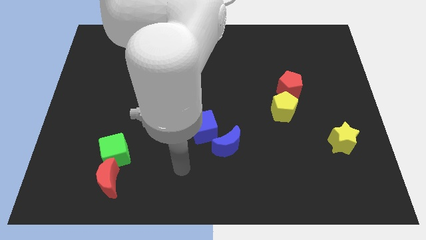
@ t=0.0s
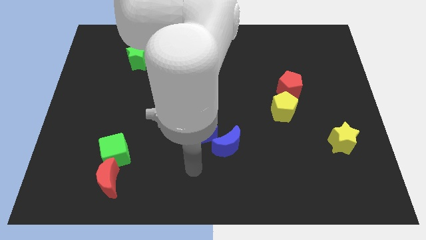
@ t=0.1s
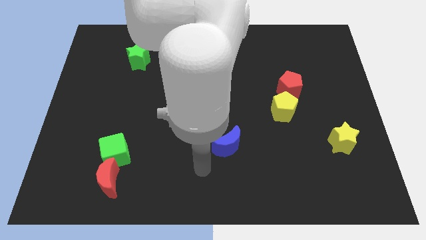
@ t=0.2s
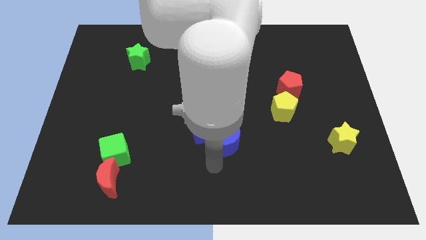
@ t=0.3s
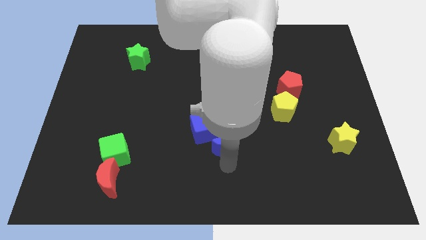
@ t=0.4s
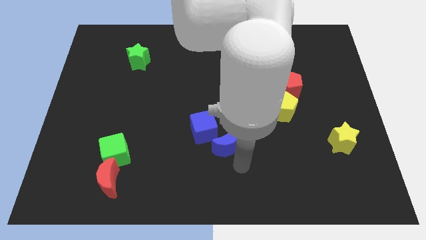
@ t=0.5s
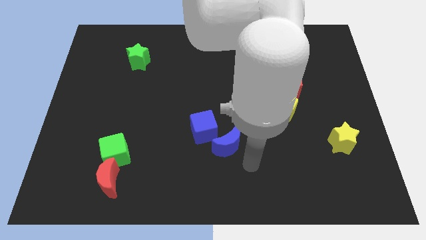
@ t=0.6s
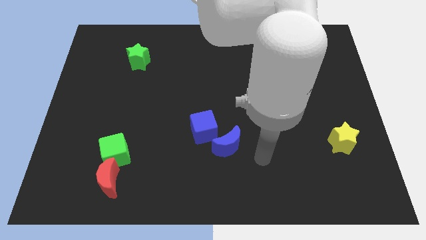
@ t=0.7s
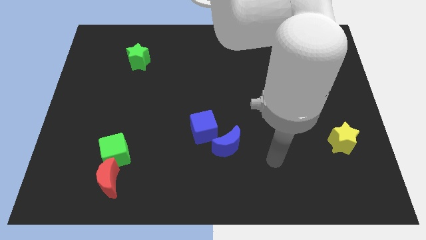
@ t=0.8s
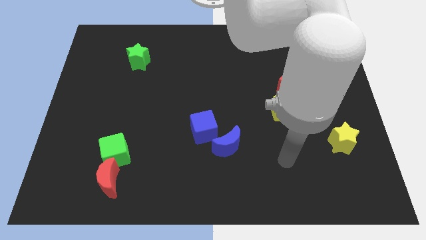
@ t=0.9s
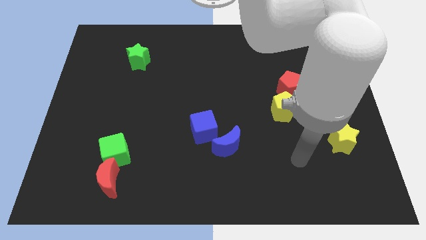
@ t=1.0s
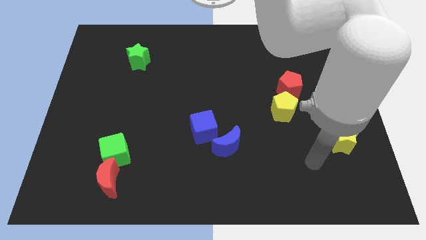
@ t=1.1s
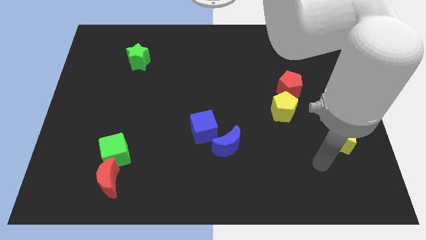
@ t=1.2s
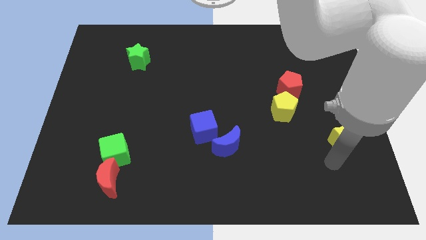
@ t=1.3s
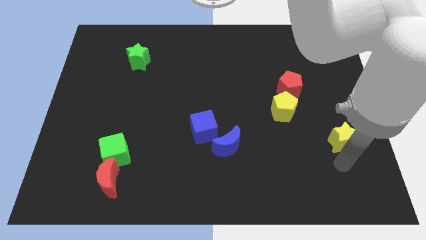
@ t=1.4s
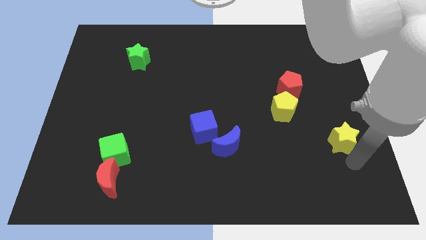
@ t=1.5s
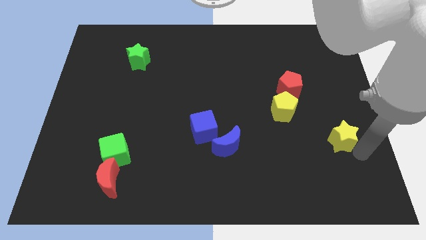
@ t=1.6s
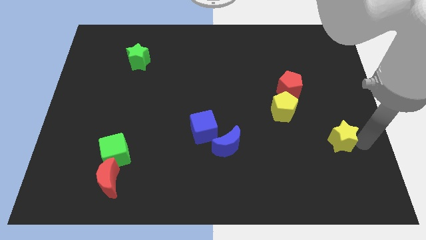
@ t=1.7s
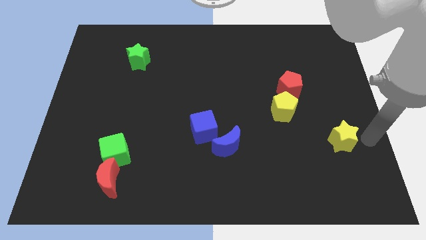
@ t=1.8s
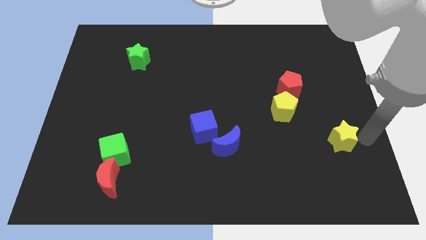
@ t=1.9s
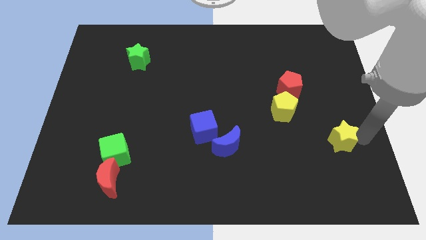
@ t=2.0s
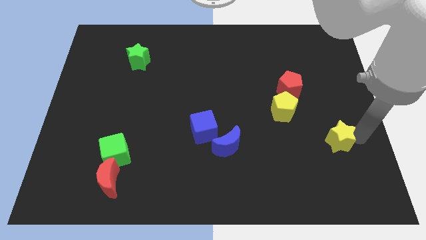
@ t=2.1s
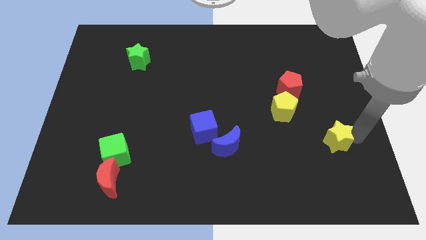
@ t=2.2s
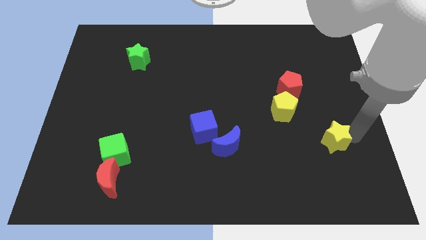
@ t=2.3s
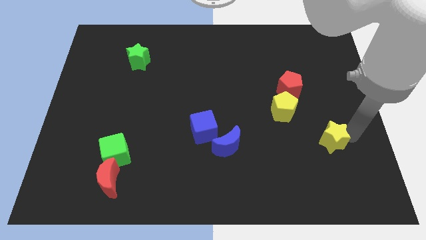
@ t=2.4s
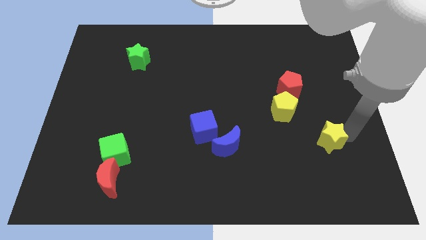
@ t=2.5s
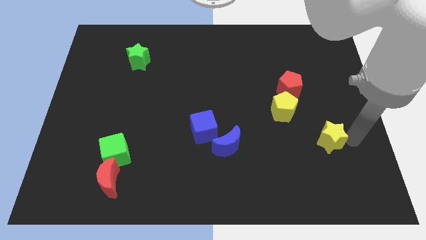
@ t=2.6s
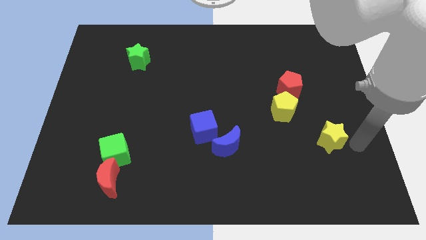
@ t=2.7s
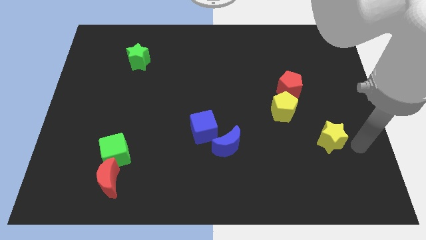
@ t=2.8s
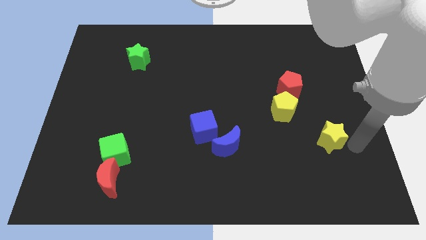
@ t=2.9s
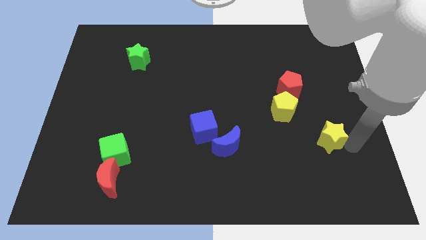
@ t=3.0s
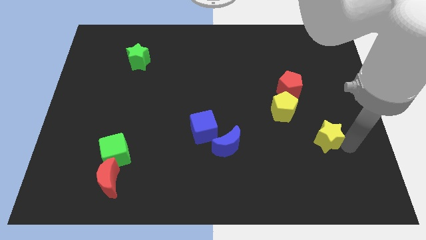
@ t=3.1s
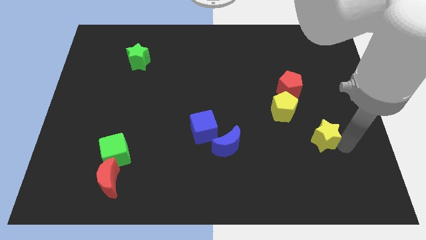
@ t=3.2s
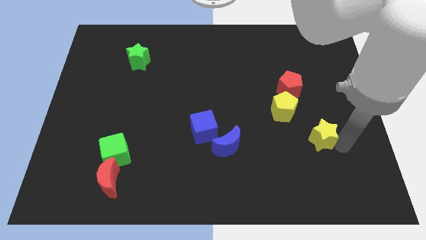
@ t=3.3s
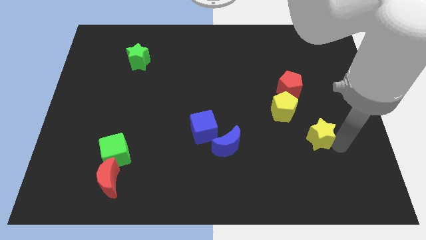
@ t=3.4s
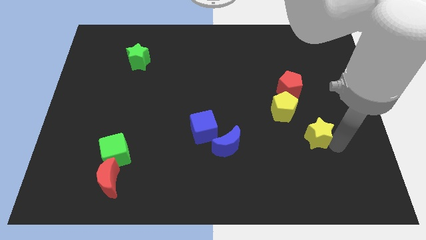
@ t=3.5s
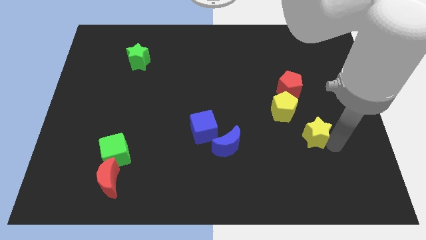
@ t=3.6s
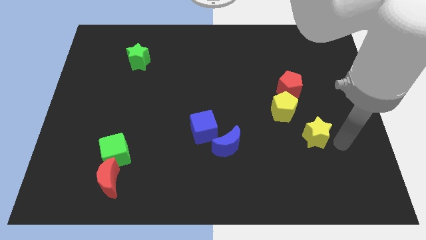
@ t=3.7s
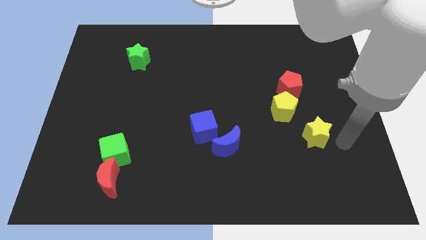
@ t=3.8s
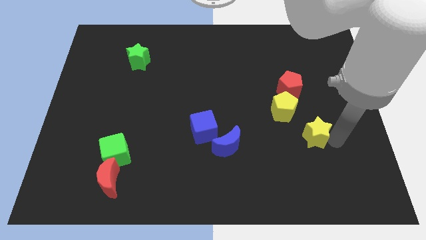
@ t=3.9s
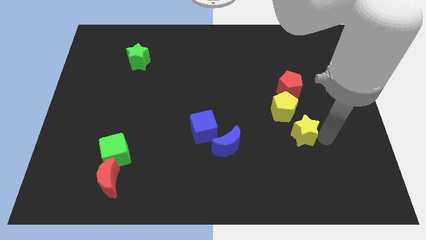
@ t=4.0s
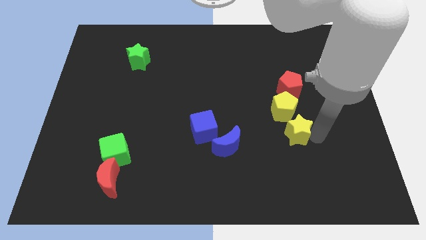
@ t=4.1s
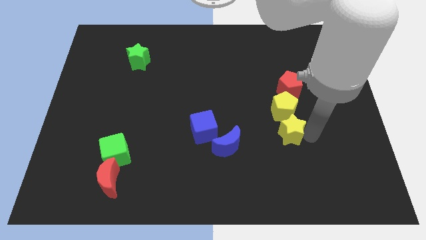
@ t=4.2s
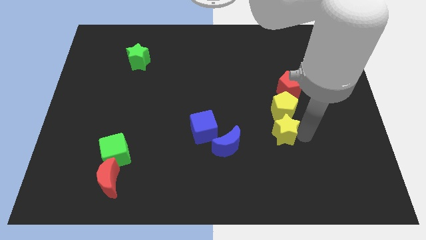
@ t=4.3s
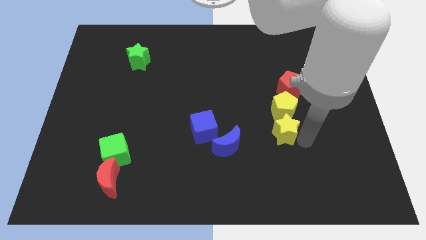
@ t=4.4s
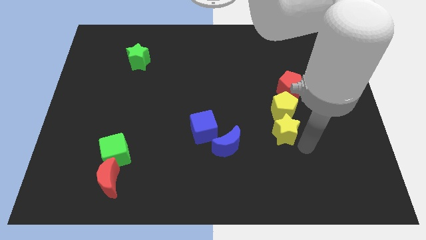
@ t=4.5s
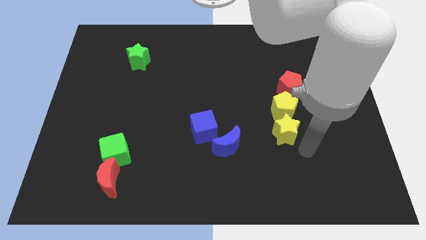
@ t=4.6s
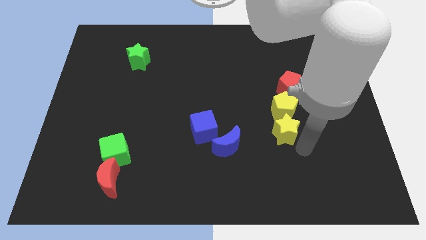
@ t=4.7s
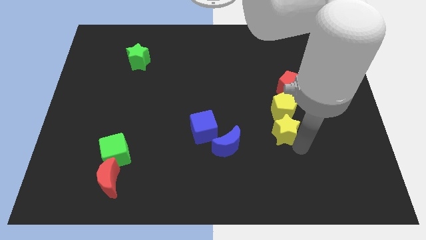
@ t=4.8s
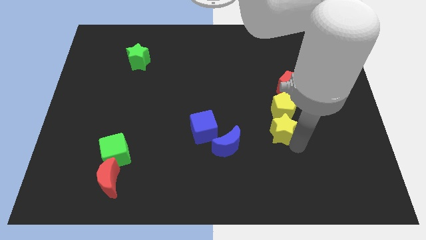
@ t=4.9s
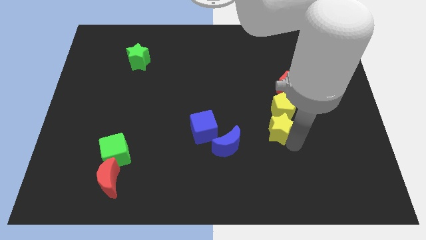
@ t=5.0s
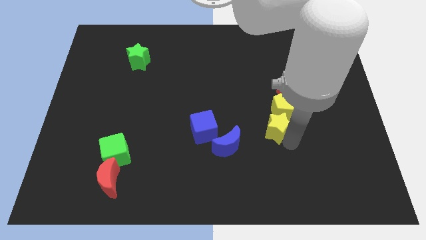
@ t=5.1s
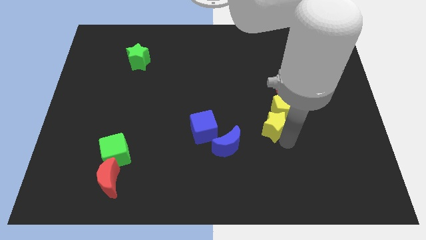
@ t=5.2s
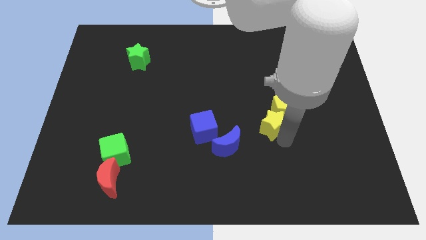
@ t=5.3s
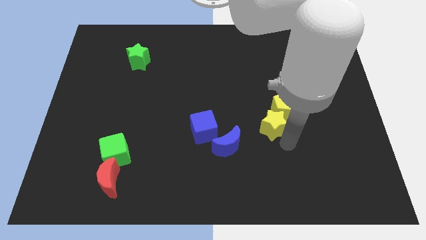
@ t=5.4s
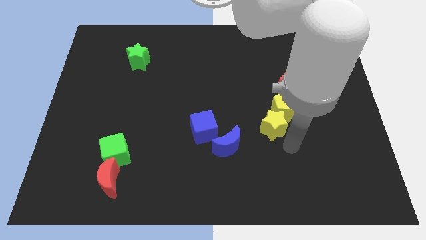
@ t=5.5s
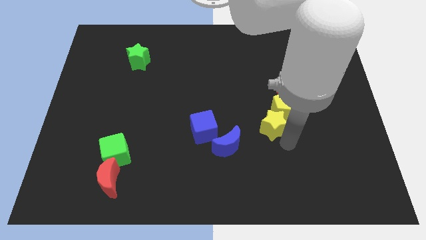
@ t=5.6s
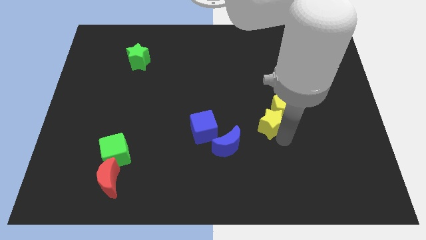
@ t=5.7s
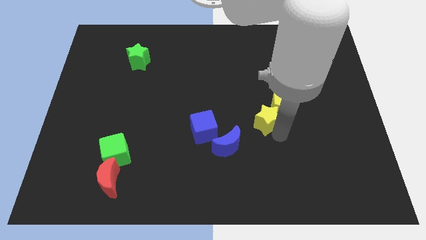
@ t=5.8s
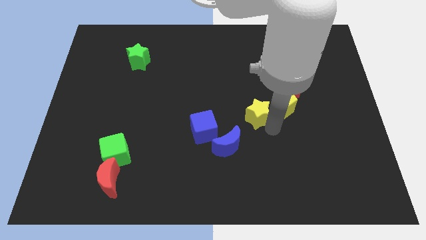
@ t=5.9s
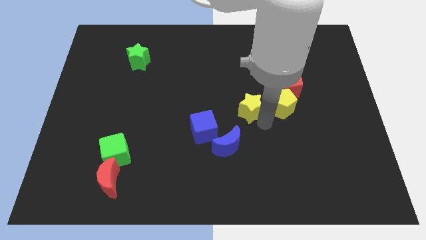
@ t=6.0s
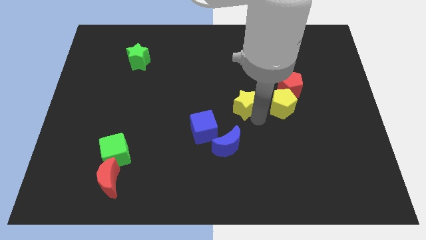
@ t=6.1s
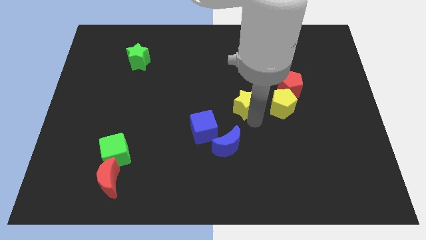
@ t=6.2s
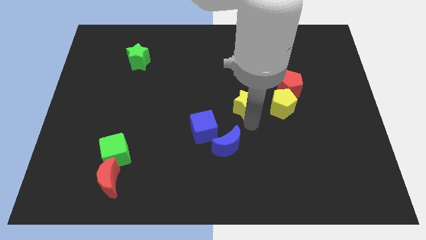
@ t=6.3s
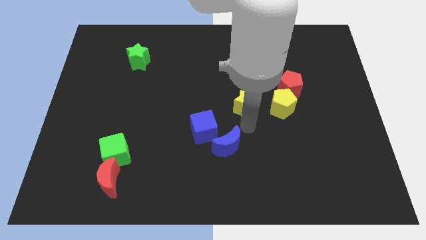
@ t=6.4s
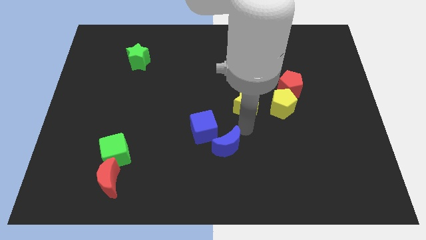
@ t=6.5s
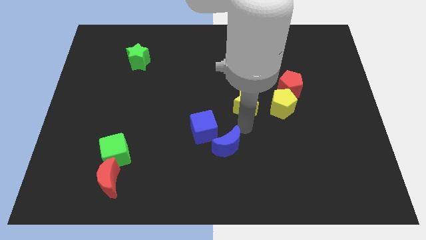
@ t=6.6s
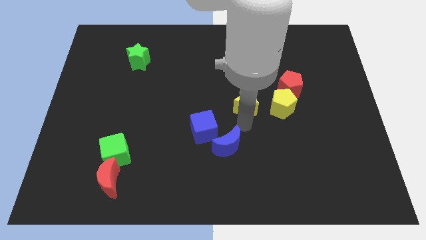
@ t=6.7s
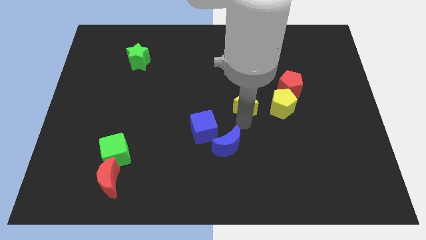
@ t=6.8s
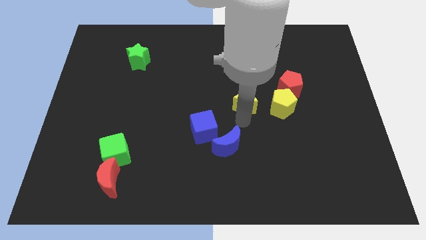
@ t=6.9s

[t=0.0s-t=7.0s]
move the yellow star diagonally upwards and to the left

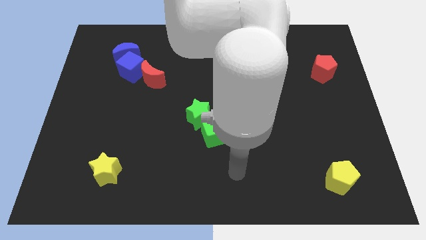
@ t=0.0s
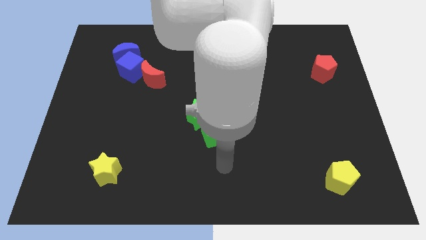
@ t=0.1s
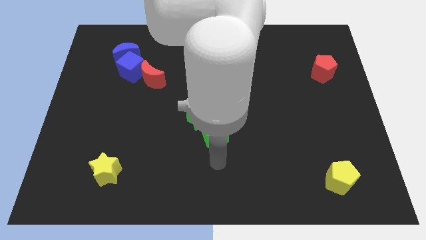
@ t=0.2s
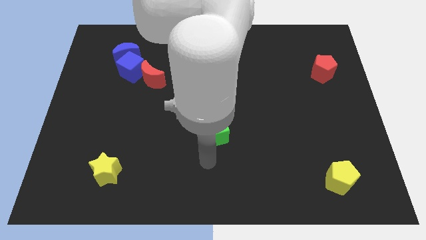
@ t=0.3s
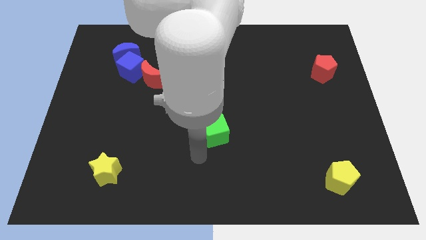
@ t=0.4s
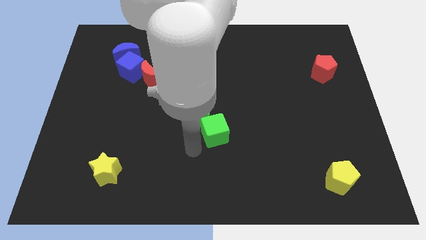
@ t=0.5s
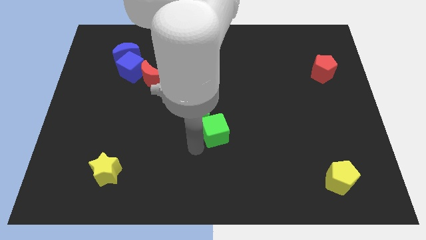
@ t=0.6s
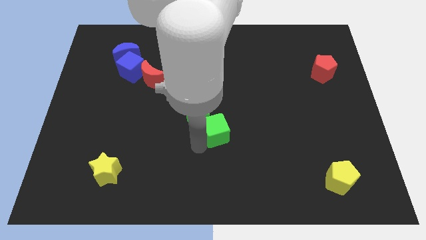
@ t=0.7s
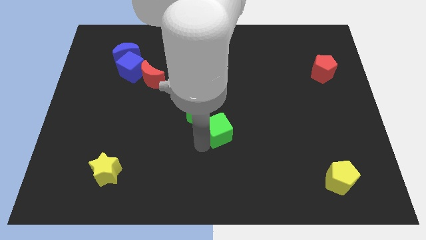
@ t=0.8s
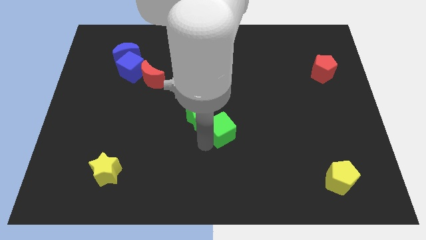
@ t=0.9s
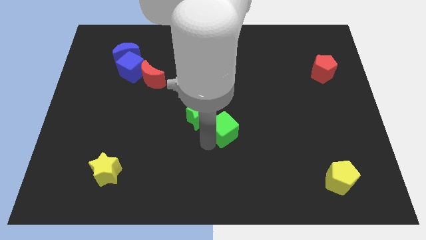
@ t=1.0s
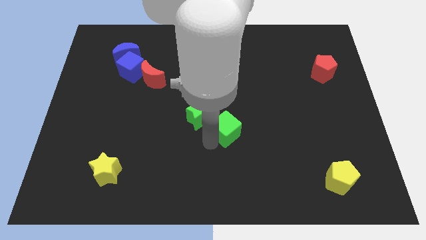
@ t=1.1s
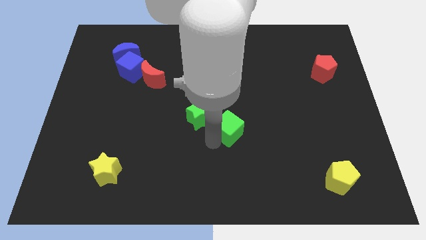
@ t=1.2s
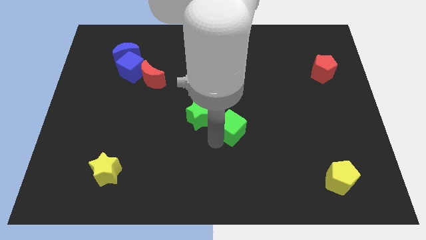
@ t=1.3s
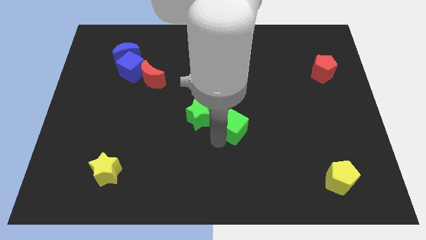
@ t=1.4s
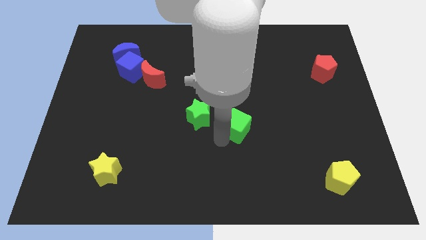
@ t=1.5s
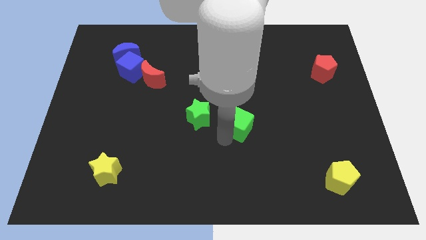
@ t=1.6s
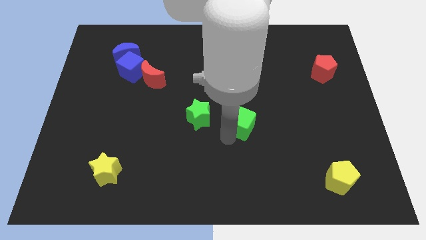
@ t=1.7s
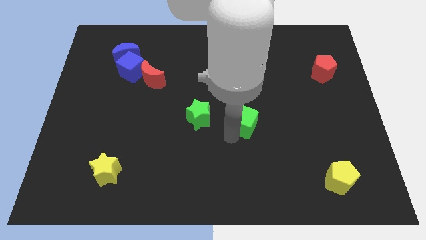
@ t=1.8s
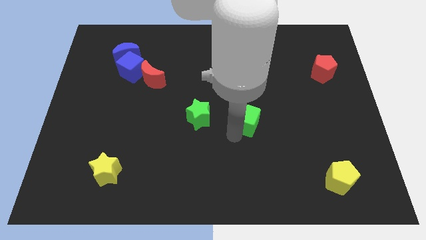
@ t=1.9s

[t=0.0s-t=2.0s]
slide the green cube a little bit upwards and right diagonally
